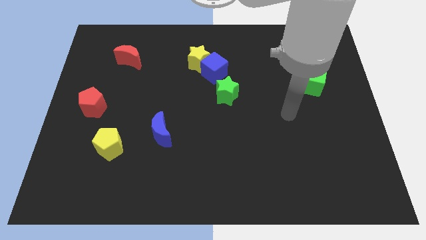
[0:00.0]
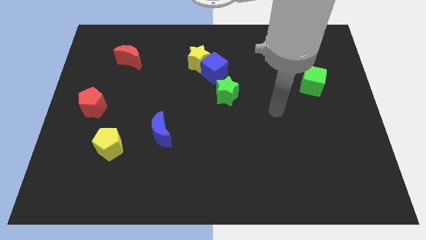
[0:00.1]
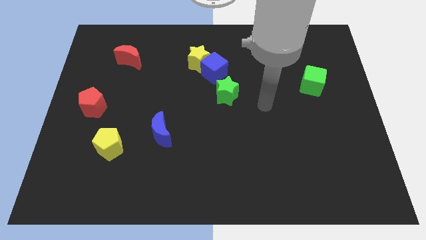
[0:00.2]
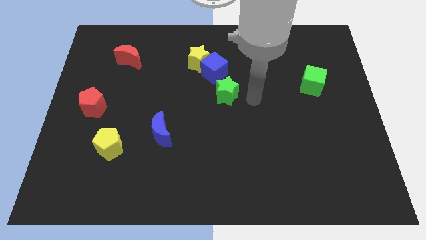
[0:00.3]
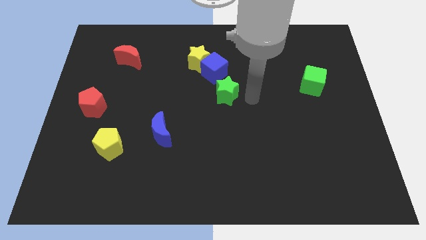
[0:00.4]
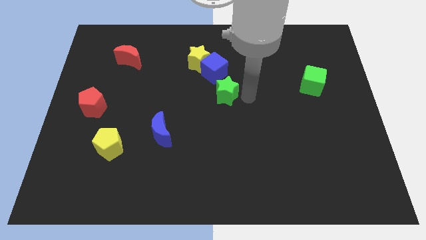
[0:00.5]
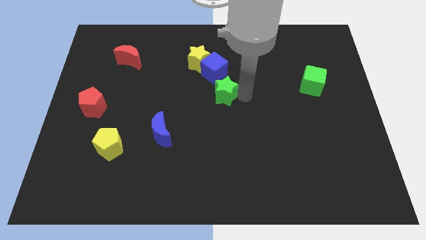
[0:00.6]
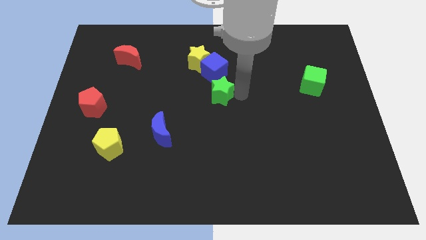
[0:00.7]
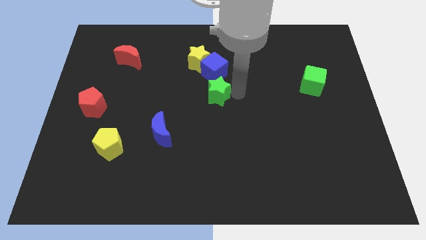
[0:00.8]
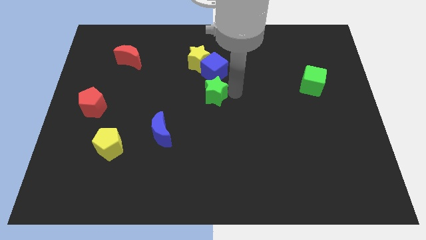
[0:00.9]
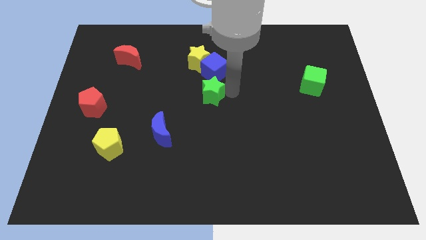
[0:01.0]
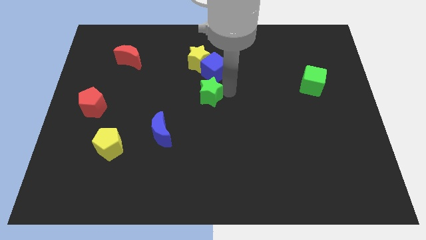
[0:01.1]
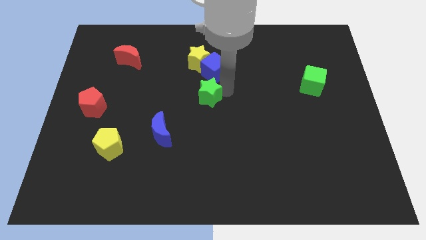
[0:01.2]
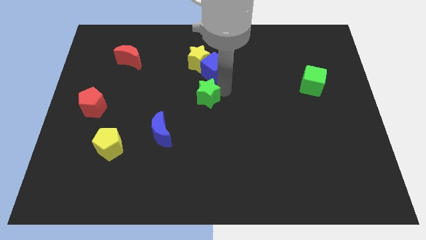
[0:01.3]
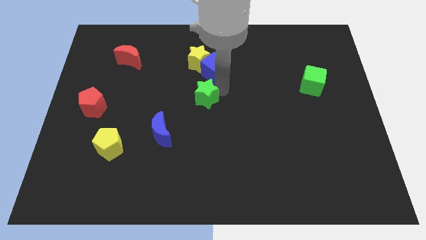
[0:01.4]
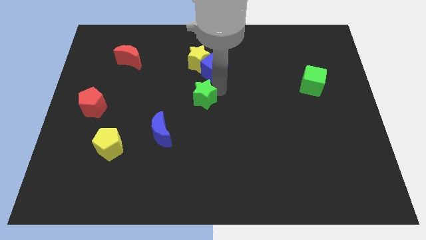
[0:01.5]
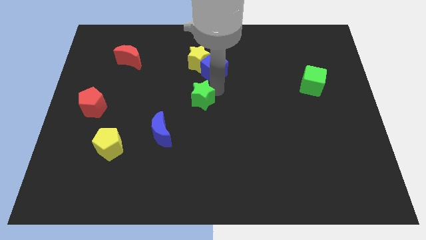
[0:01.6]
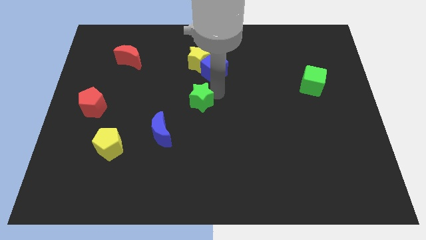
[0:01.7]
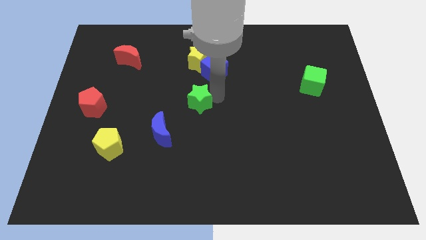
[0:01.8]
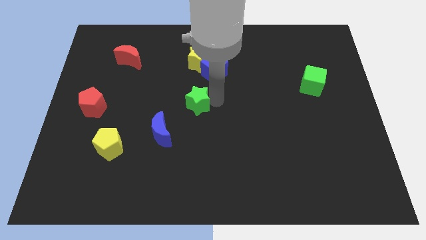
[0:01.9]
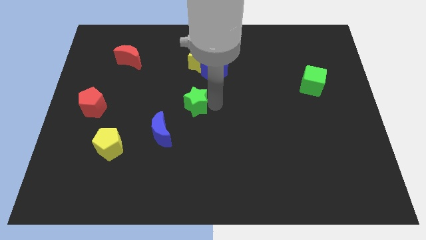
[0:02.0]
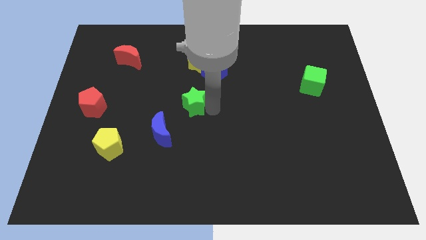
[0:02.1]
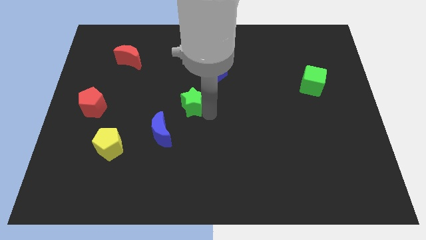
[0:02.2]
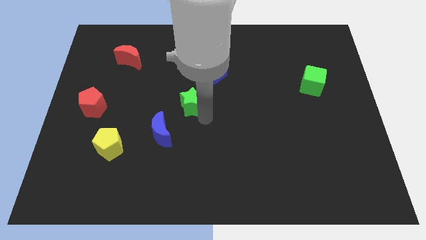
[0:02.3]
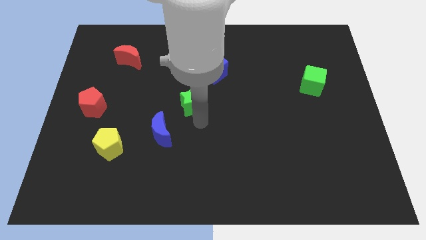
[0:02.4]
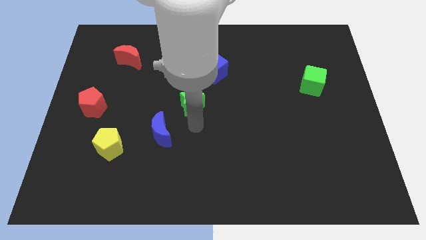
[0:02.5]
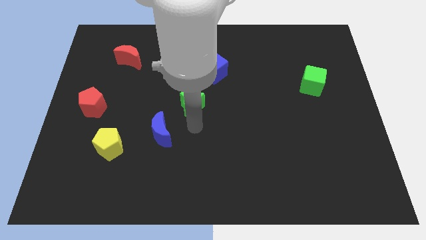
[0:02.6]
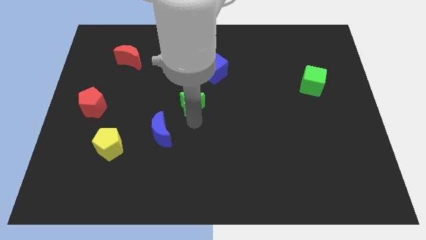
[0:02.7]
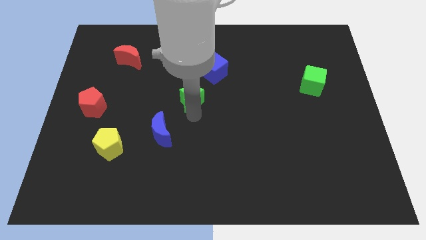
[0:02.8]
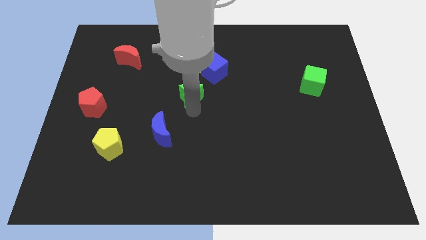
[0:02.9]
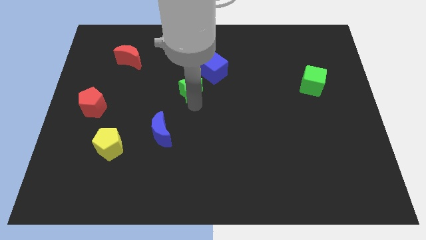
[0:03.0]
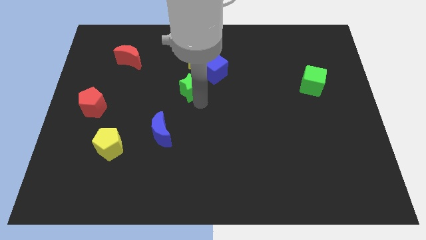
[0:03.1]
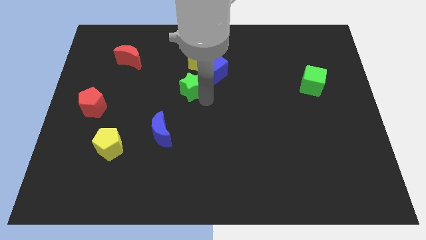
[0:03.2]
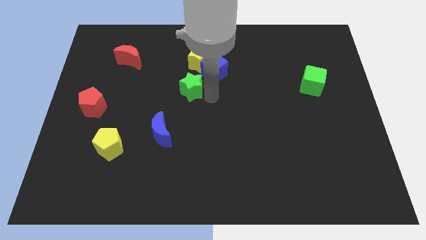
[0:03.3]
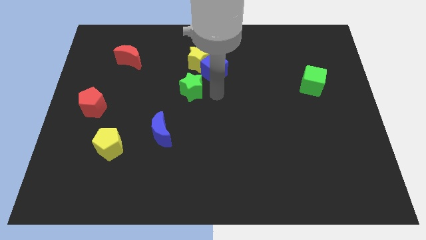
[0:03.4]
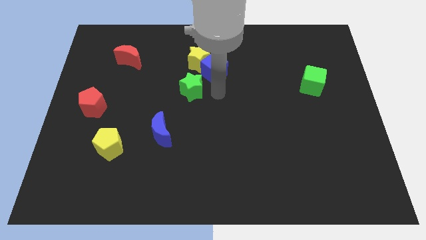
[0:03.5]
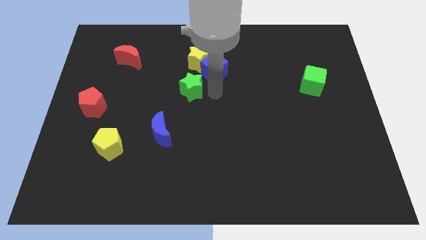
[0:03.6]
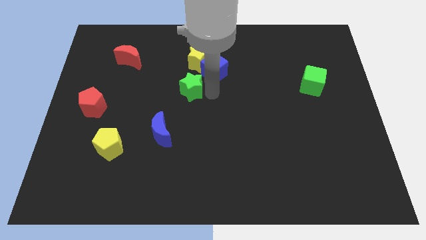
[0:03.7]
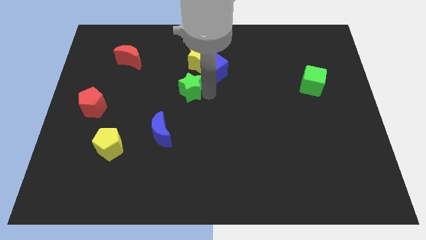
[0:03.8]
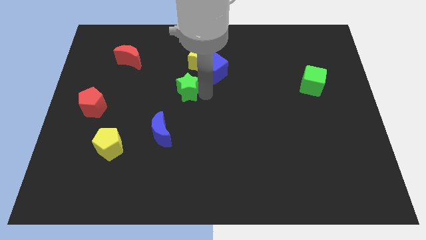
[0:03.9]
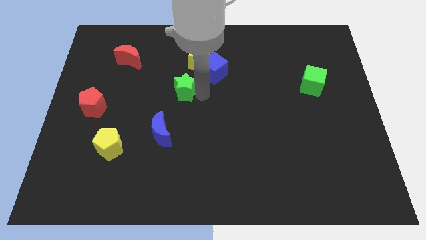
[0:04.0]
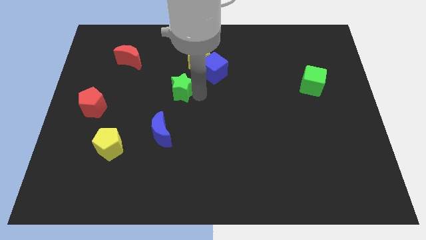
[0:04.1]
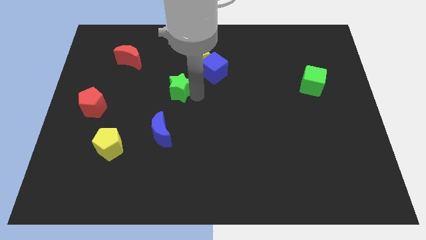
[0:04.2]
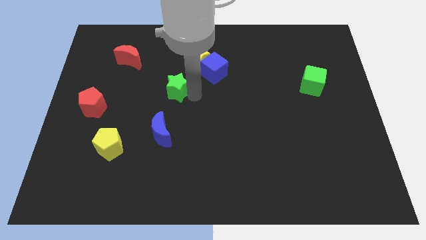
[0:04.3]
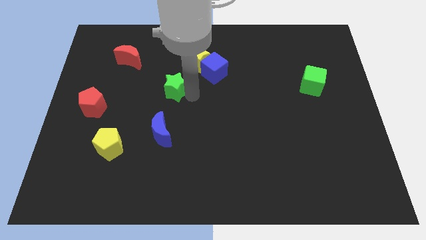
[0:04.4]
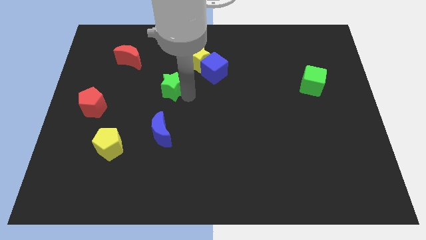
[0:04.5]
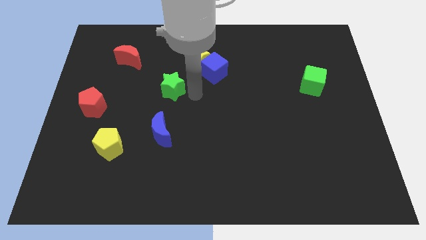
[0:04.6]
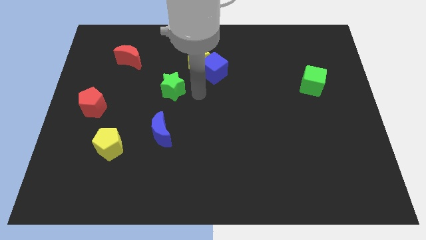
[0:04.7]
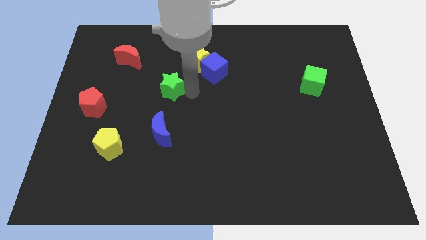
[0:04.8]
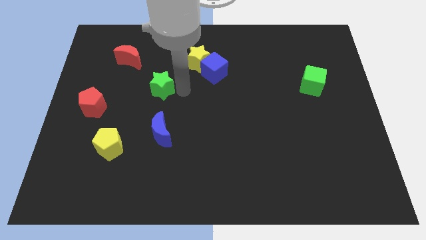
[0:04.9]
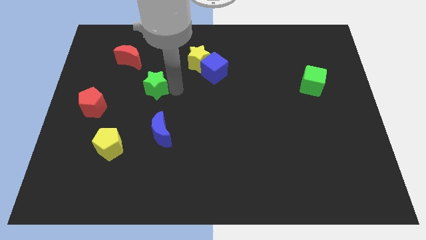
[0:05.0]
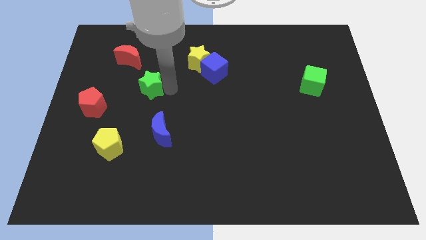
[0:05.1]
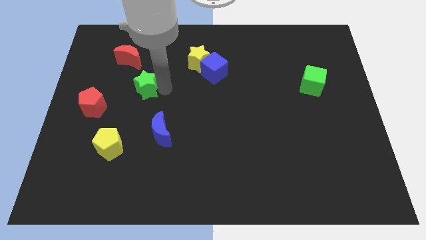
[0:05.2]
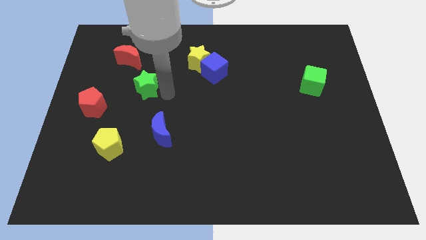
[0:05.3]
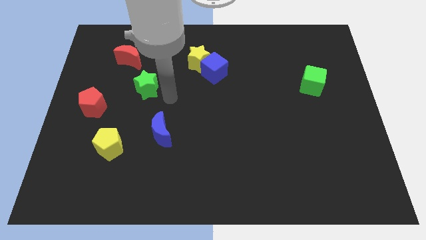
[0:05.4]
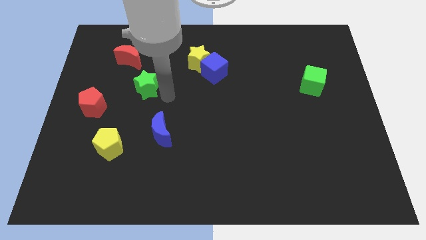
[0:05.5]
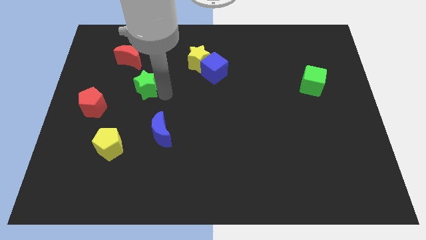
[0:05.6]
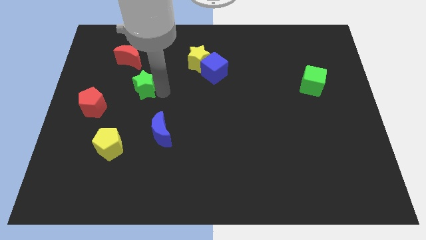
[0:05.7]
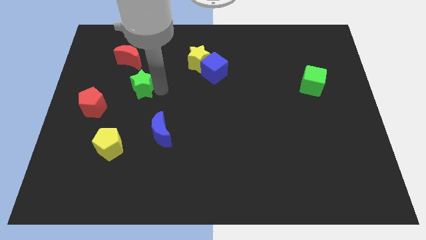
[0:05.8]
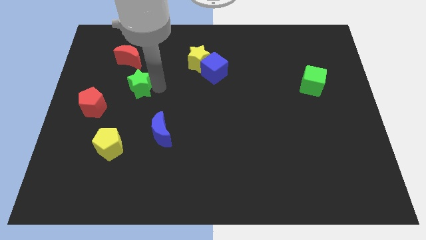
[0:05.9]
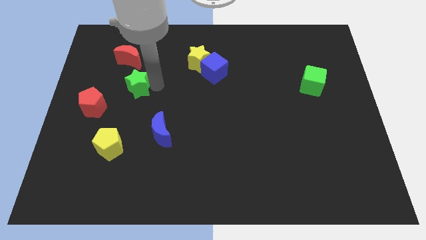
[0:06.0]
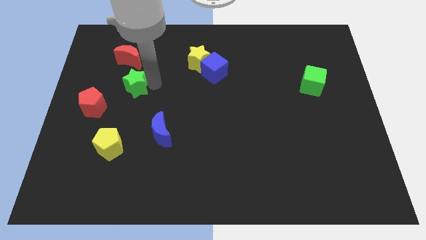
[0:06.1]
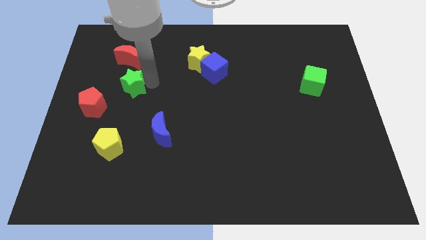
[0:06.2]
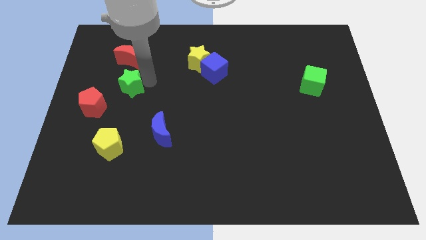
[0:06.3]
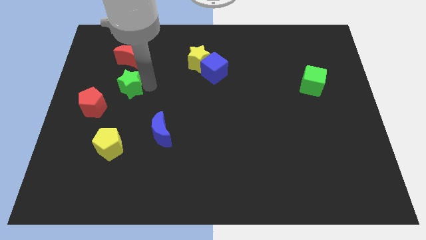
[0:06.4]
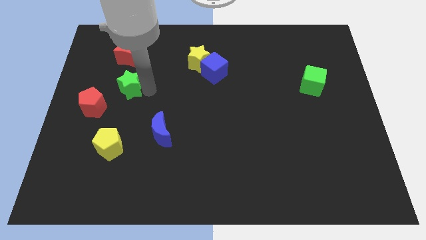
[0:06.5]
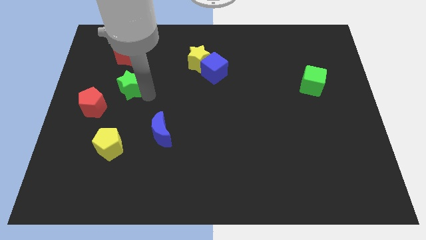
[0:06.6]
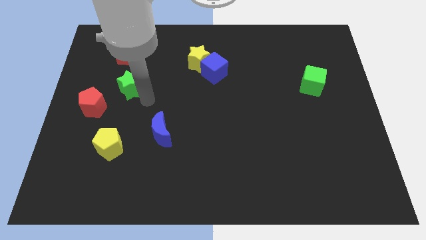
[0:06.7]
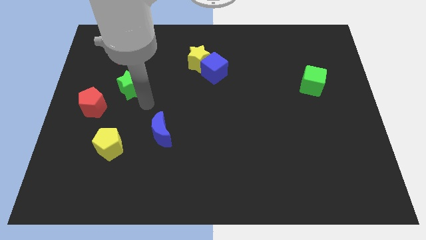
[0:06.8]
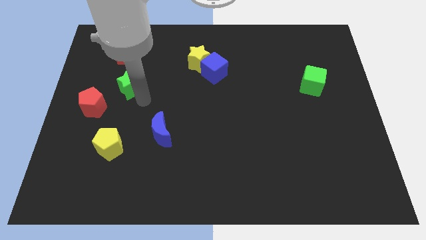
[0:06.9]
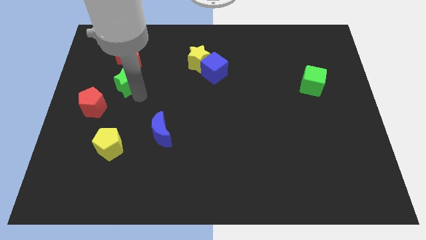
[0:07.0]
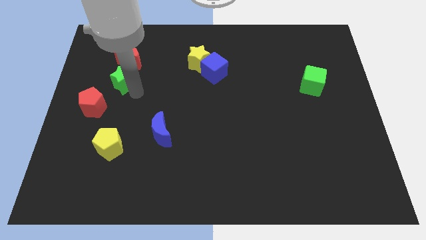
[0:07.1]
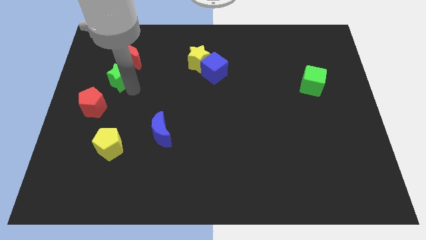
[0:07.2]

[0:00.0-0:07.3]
move the green star diagonally down and to the left of the red moon
